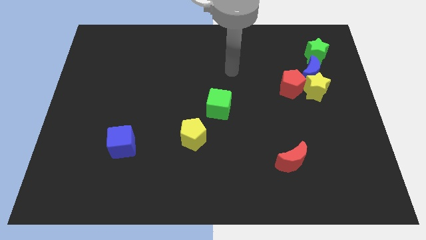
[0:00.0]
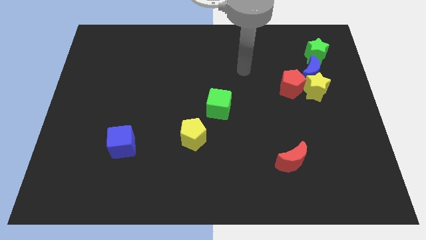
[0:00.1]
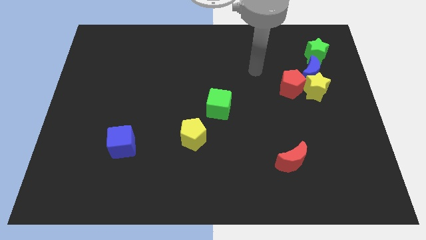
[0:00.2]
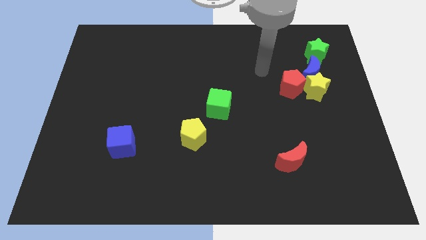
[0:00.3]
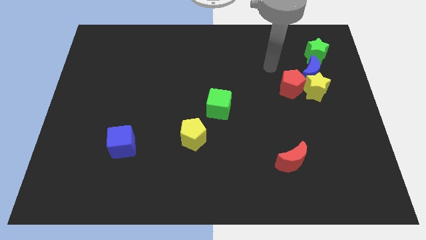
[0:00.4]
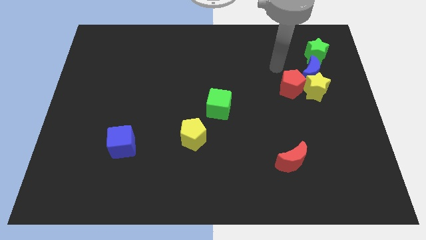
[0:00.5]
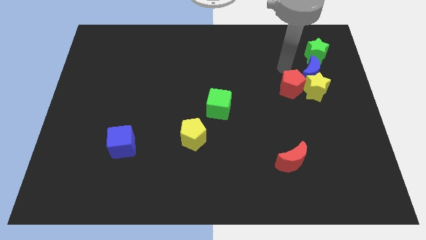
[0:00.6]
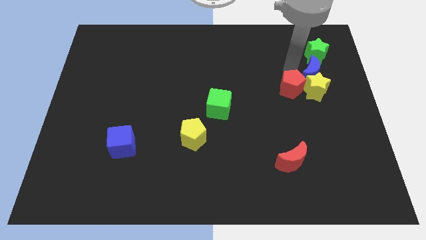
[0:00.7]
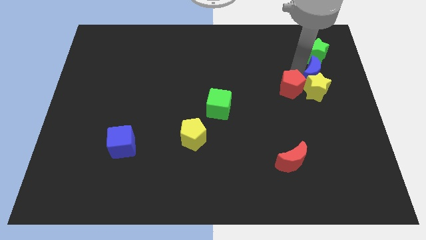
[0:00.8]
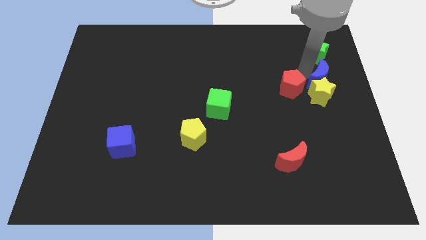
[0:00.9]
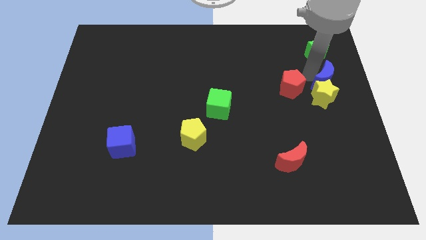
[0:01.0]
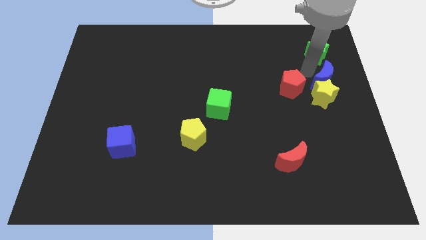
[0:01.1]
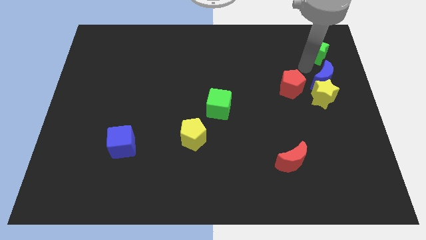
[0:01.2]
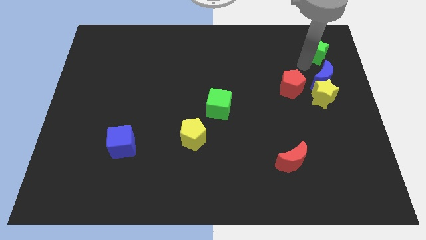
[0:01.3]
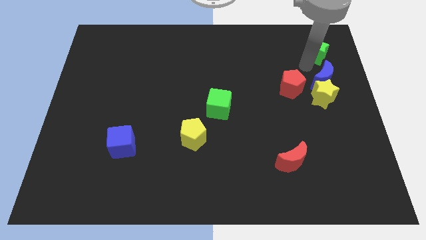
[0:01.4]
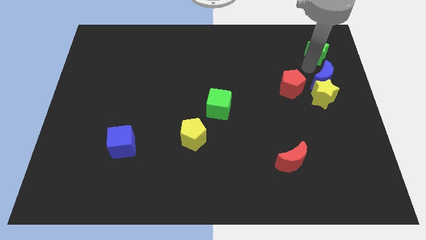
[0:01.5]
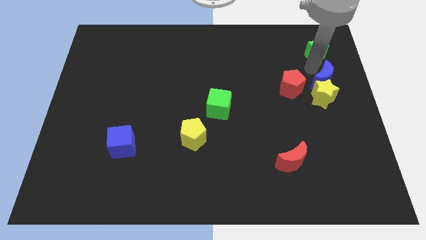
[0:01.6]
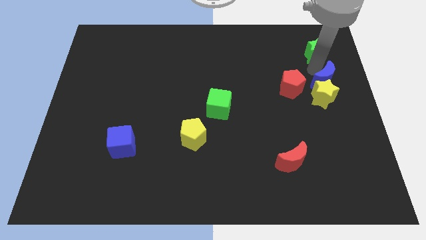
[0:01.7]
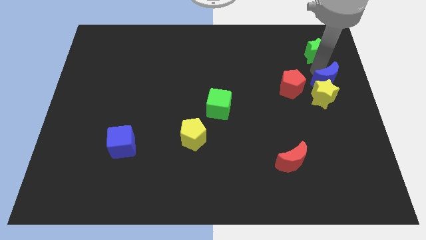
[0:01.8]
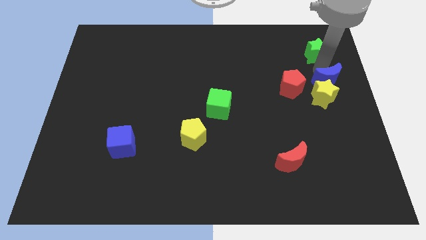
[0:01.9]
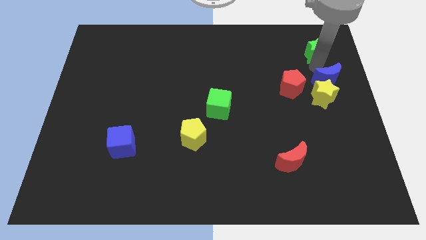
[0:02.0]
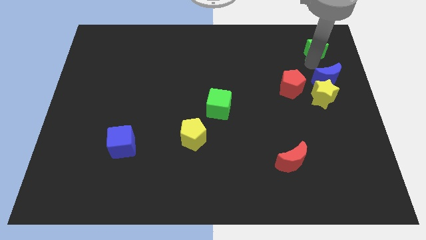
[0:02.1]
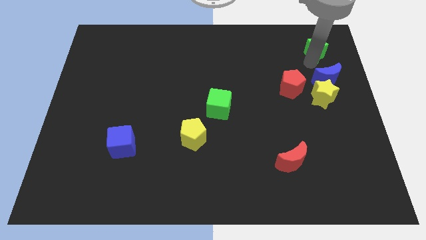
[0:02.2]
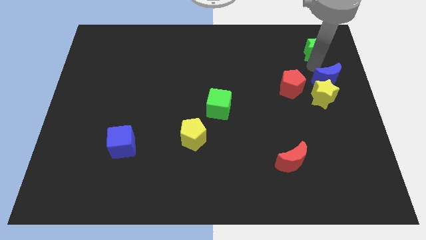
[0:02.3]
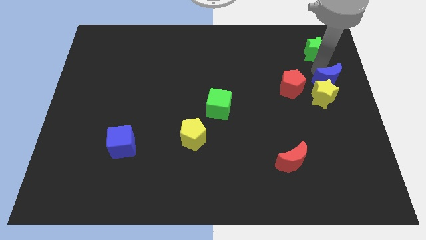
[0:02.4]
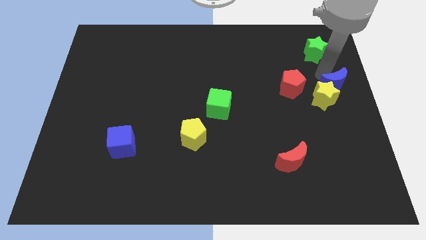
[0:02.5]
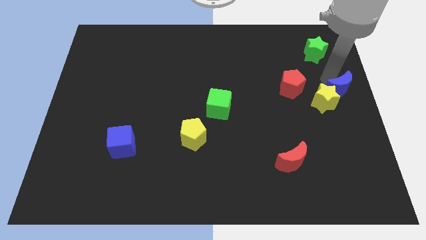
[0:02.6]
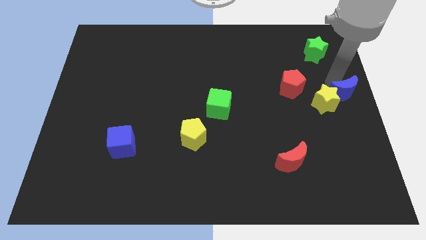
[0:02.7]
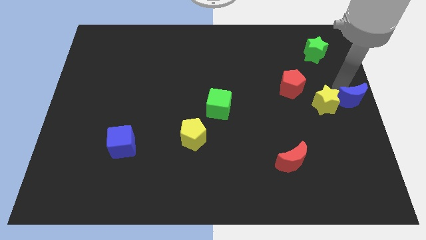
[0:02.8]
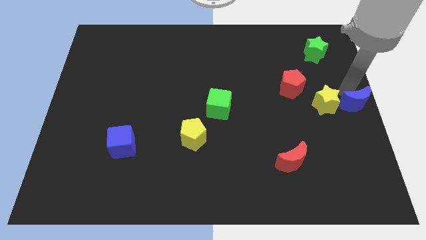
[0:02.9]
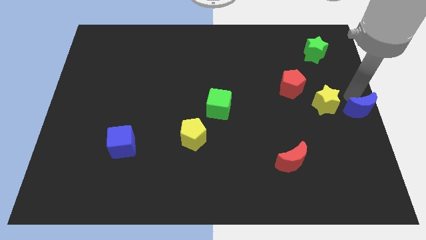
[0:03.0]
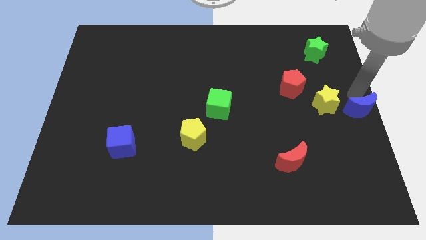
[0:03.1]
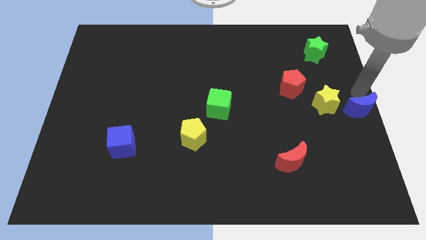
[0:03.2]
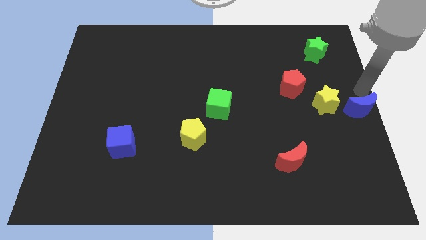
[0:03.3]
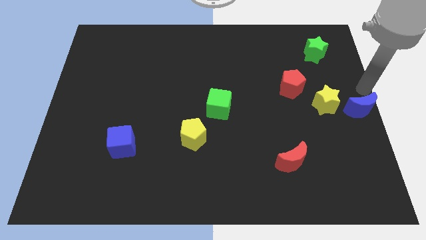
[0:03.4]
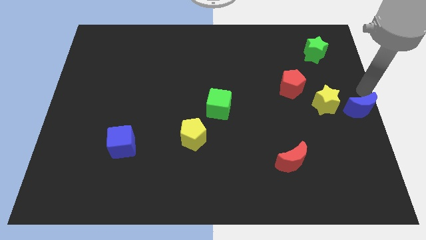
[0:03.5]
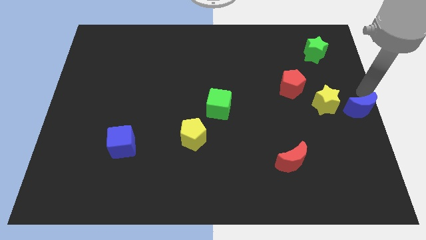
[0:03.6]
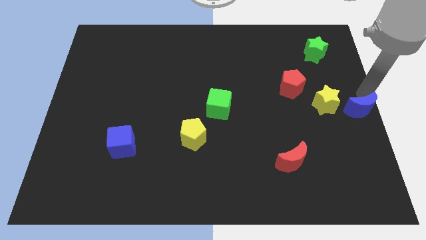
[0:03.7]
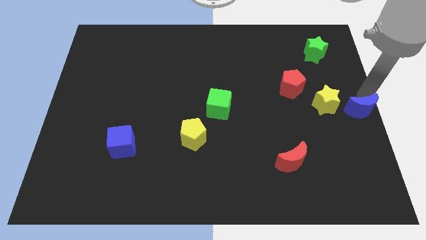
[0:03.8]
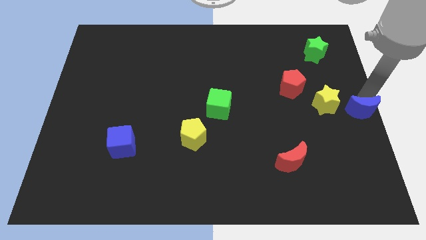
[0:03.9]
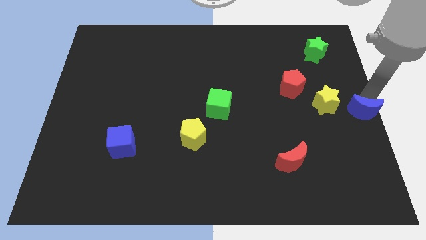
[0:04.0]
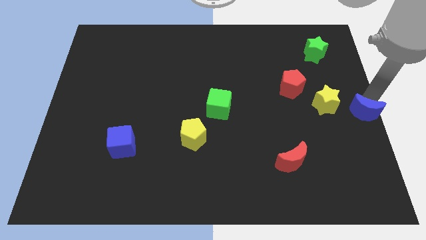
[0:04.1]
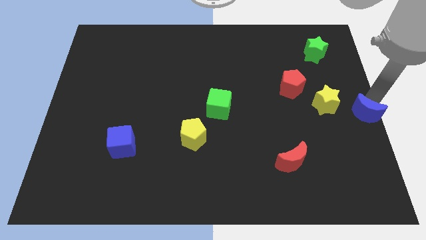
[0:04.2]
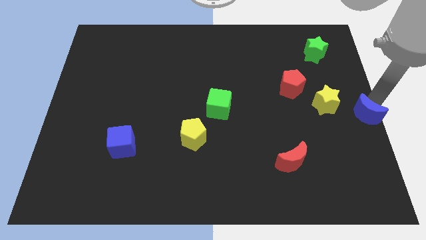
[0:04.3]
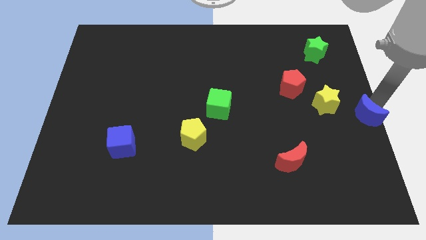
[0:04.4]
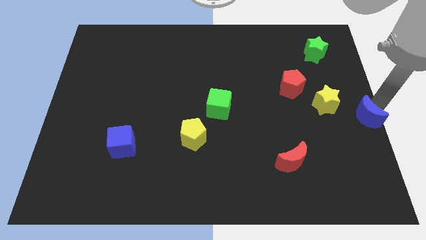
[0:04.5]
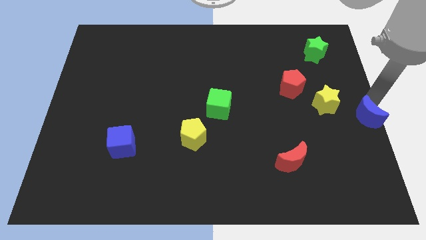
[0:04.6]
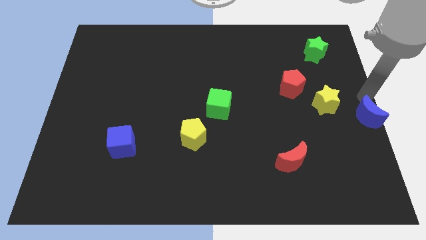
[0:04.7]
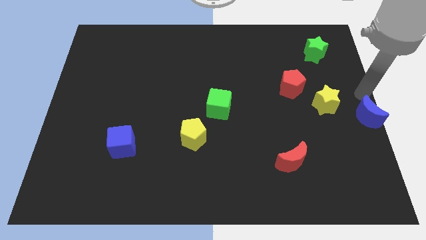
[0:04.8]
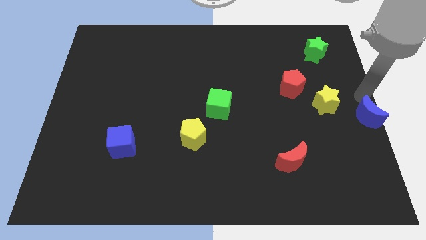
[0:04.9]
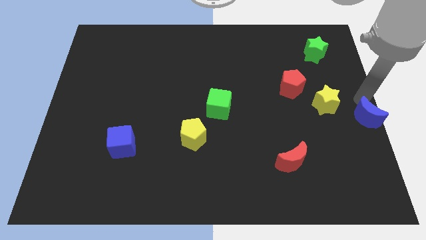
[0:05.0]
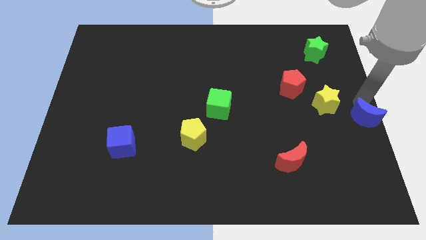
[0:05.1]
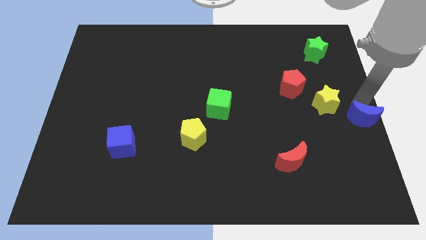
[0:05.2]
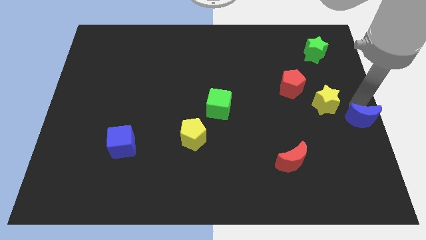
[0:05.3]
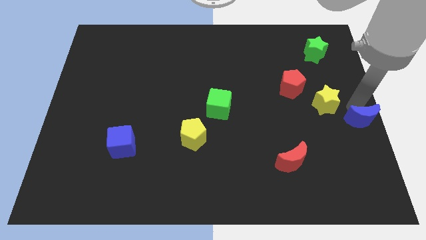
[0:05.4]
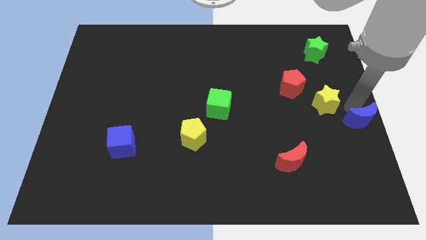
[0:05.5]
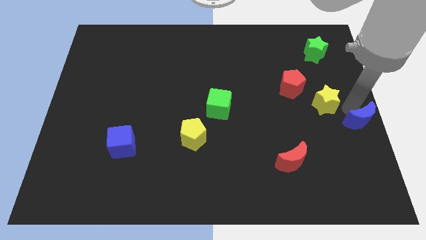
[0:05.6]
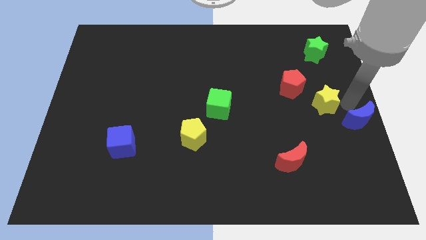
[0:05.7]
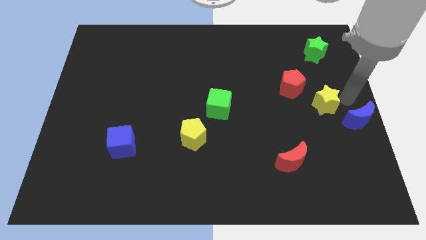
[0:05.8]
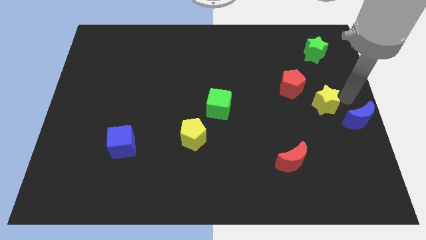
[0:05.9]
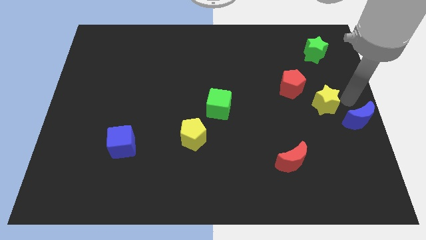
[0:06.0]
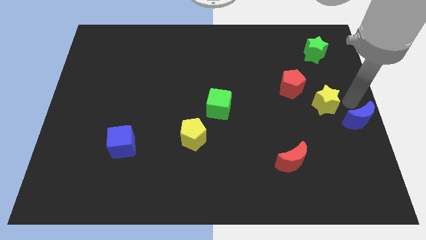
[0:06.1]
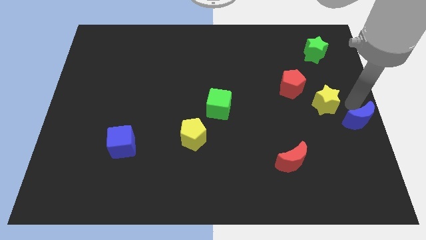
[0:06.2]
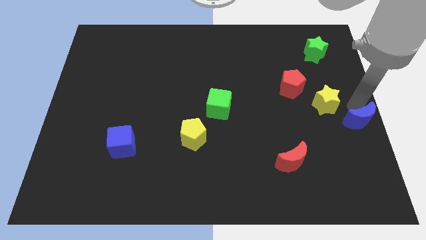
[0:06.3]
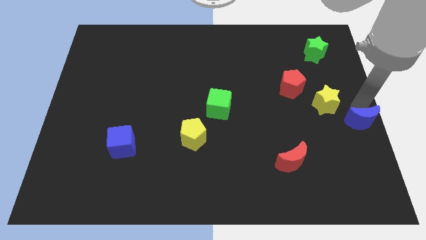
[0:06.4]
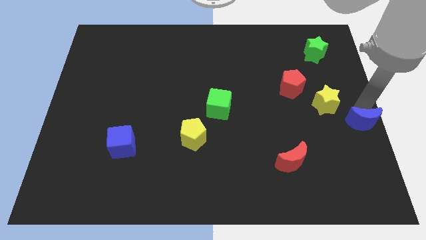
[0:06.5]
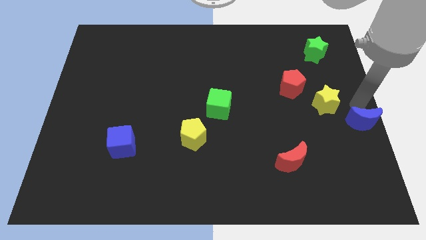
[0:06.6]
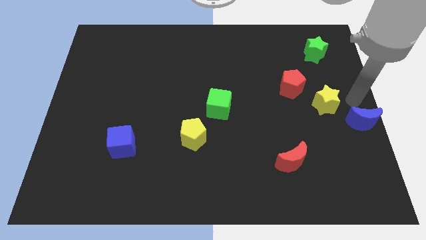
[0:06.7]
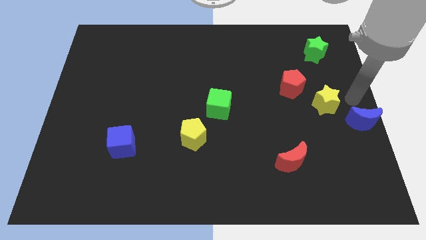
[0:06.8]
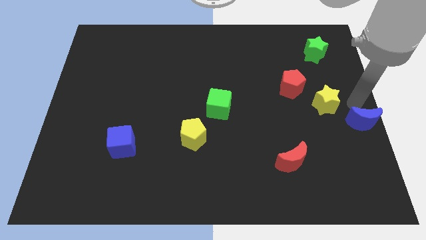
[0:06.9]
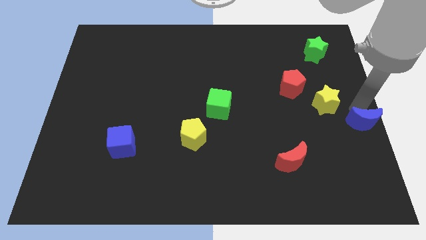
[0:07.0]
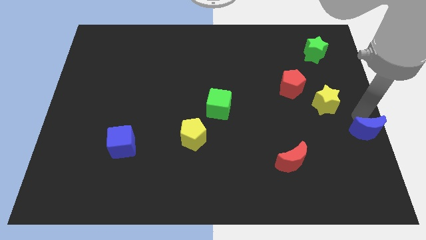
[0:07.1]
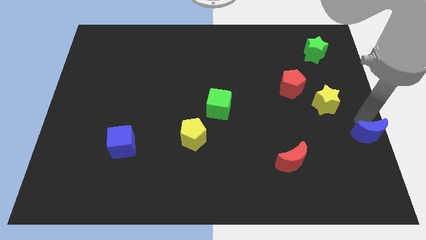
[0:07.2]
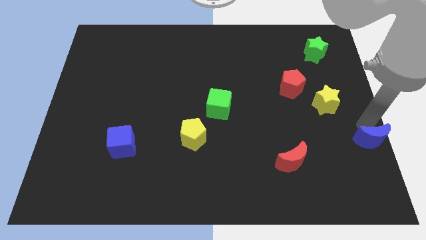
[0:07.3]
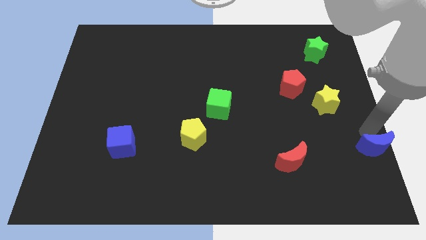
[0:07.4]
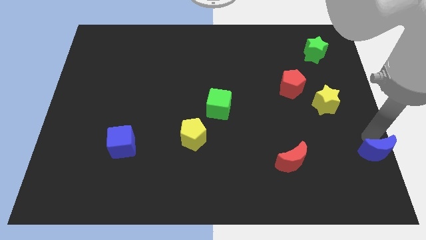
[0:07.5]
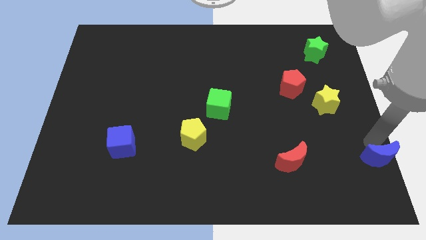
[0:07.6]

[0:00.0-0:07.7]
put the blue moon to the bottom right of the board
